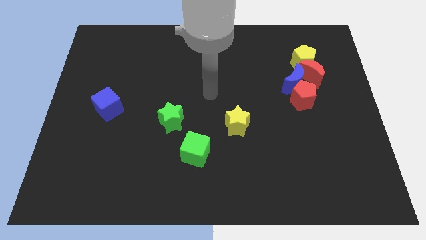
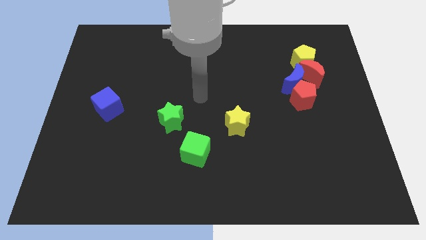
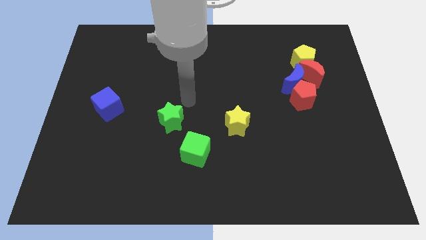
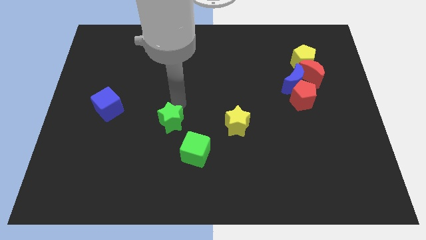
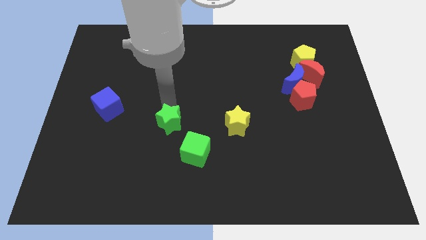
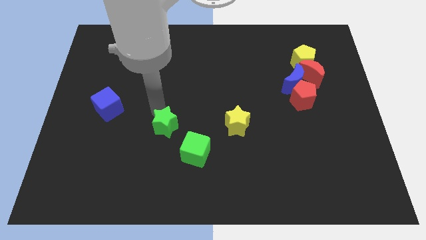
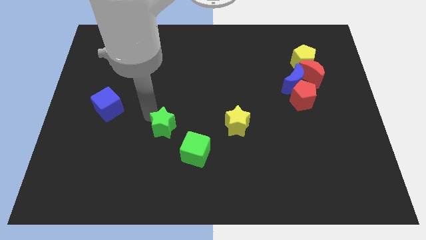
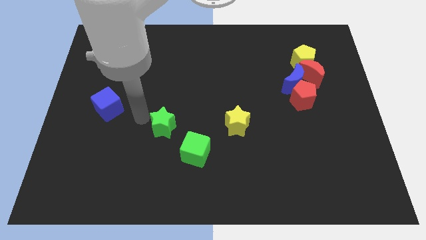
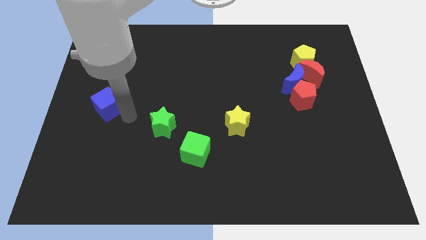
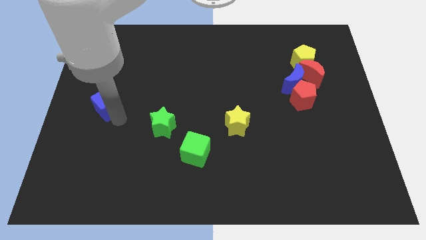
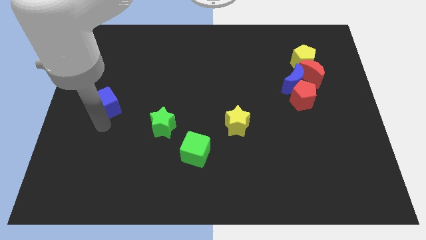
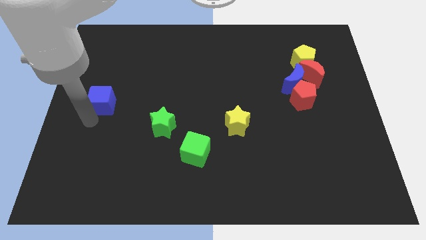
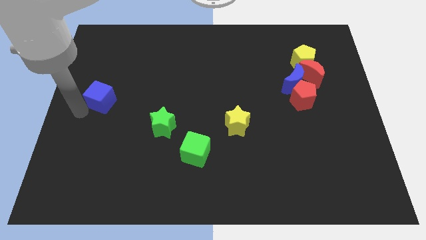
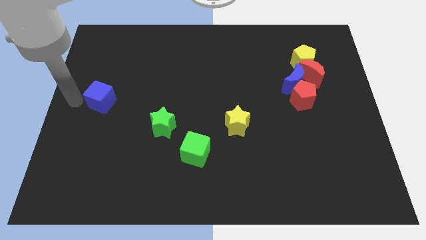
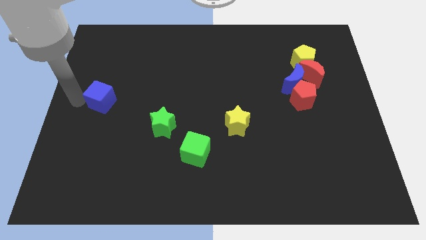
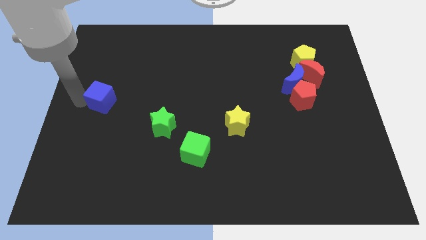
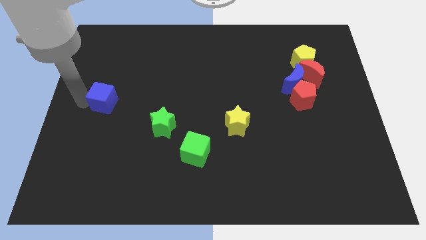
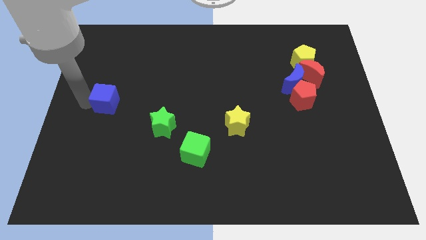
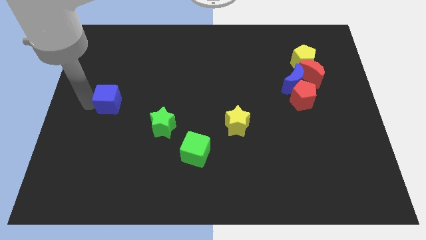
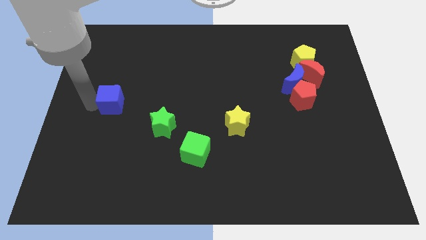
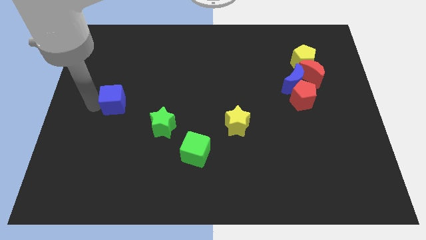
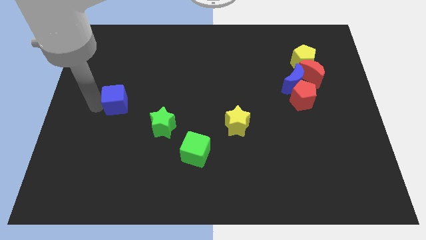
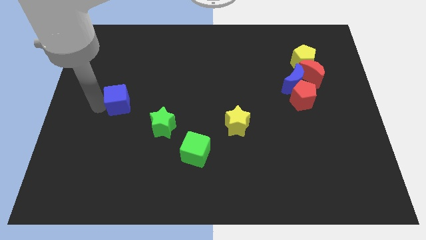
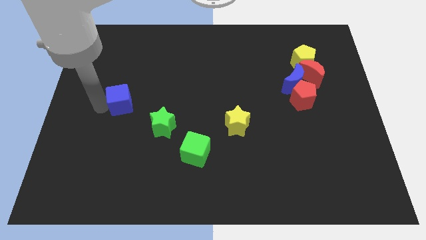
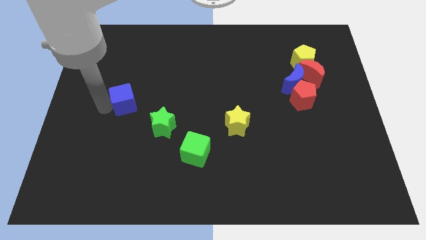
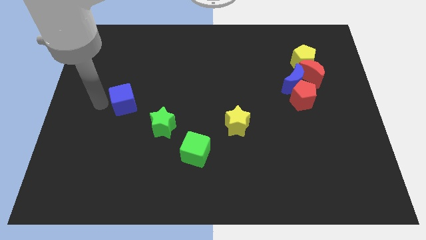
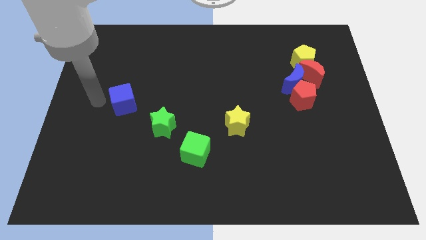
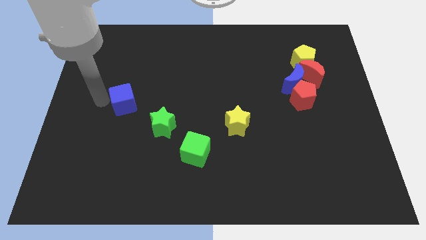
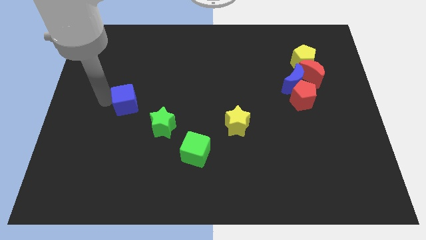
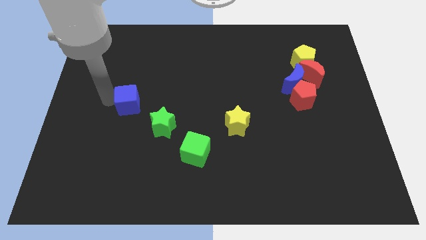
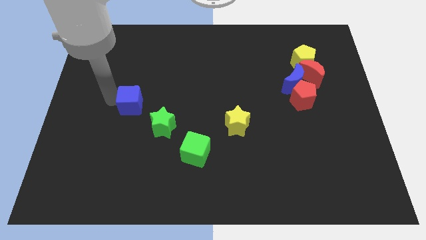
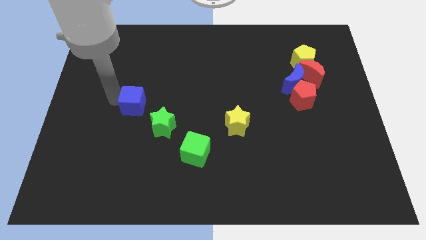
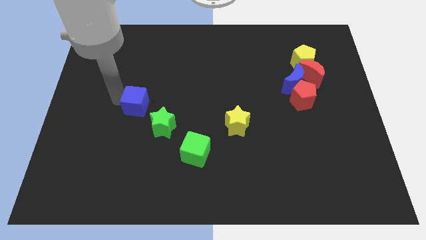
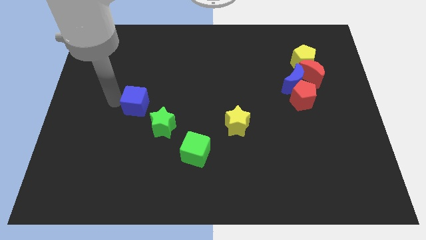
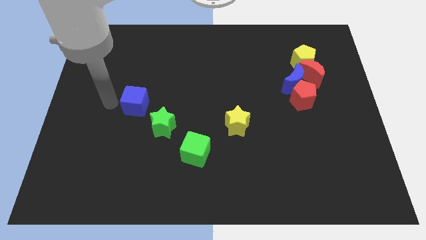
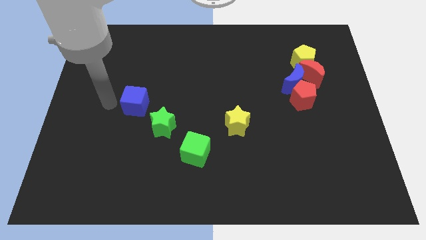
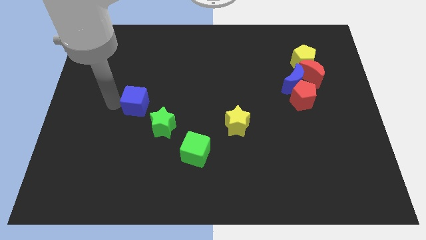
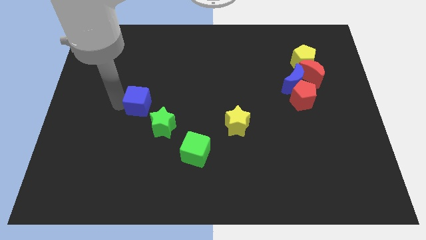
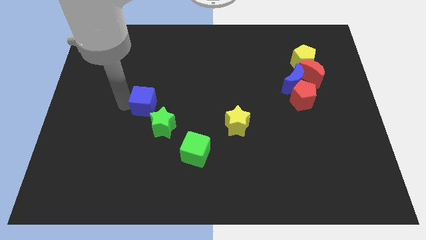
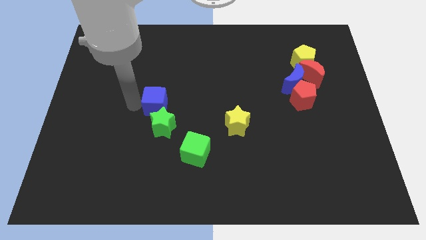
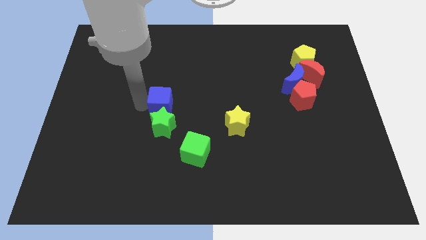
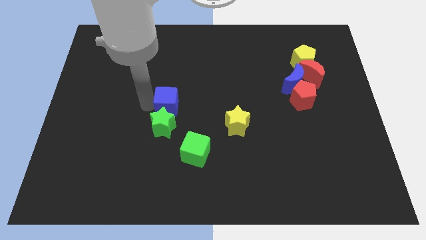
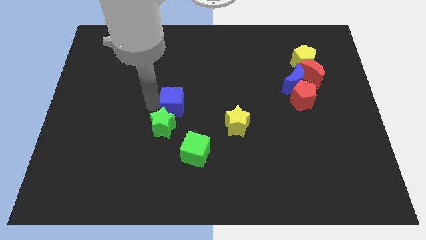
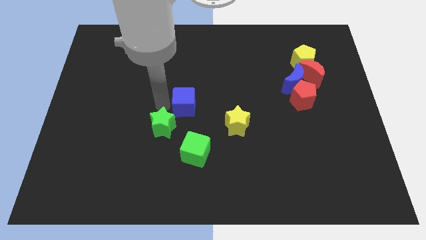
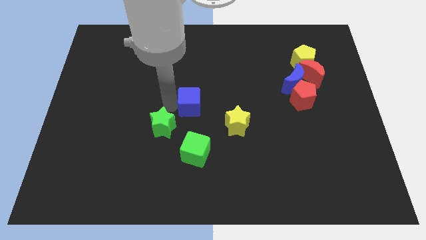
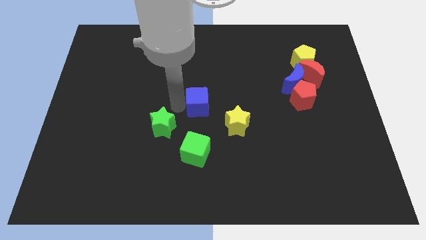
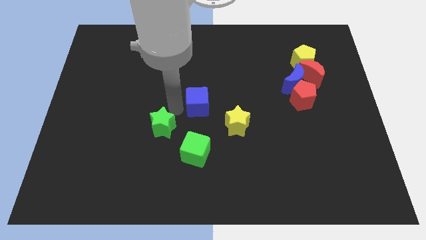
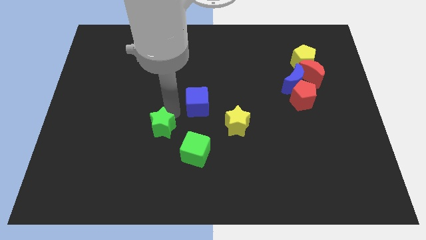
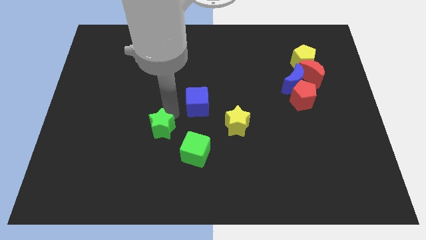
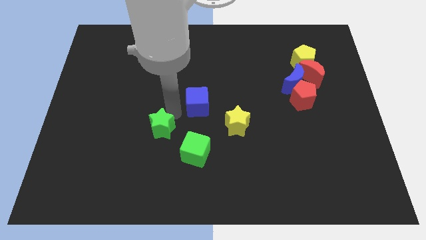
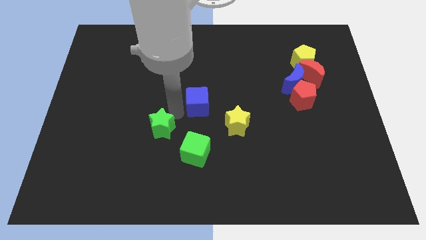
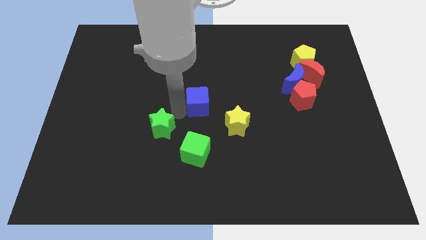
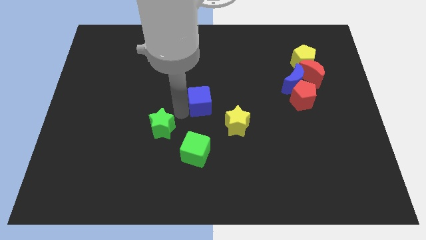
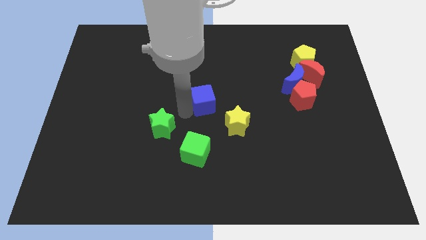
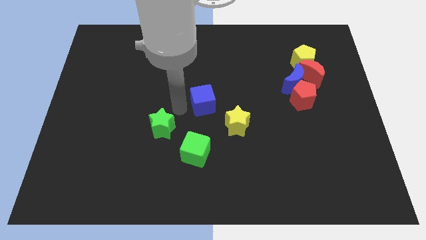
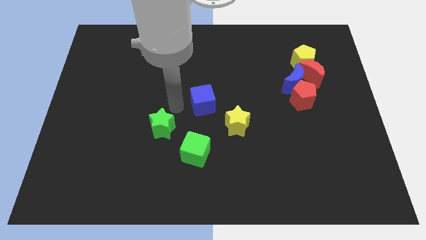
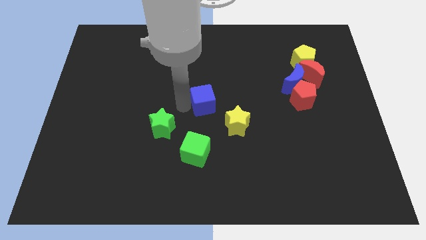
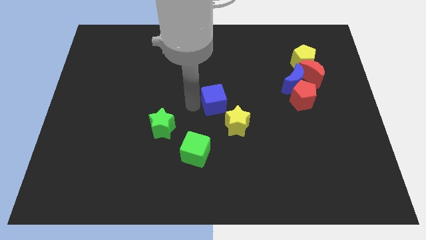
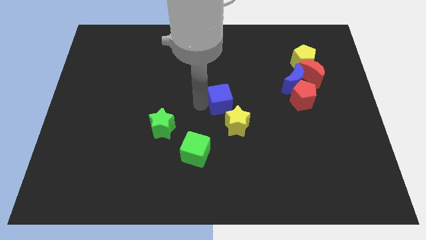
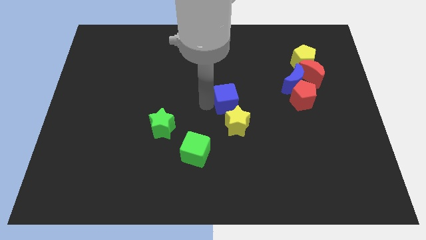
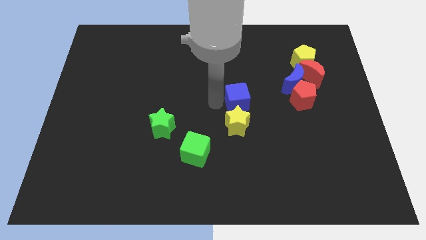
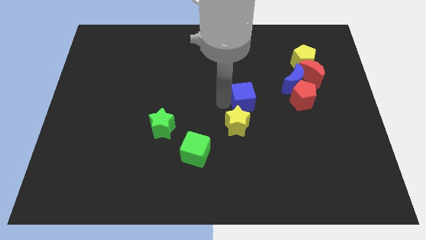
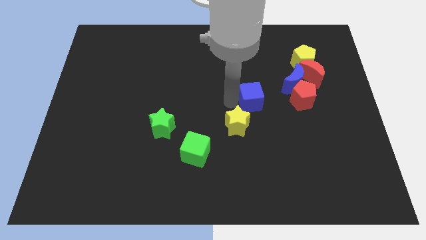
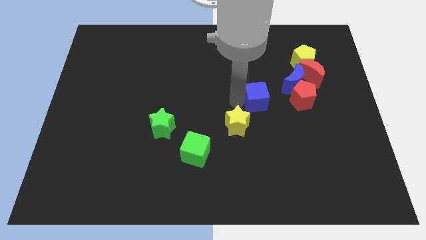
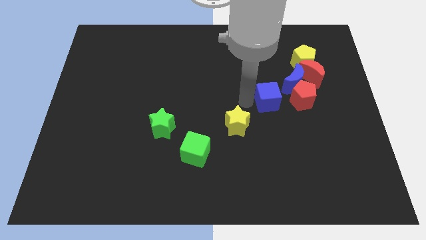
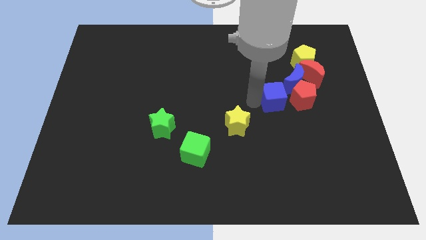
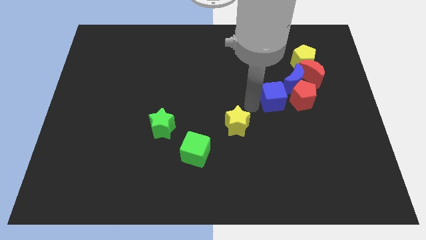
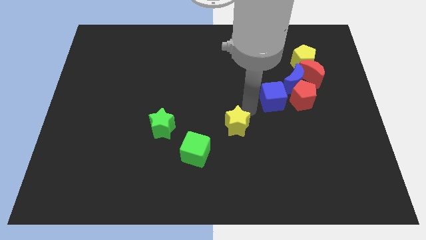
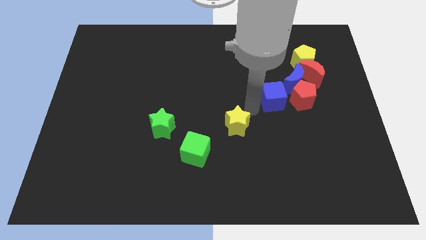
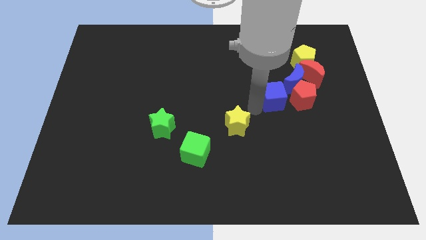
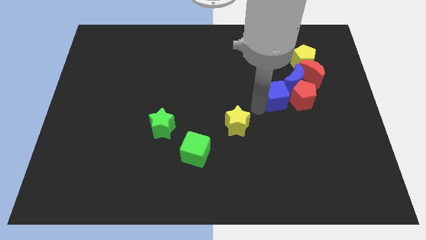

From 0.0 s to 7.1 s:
put the blue cube to the bottom left side of the red moon

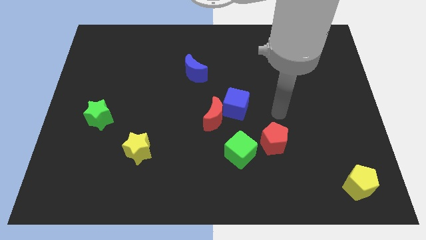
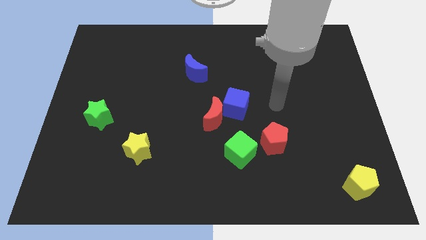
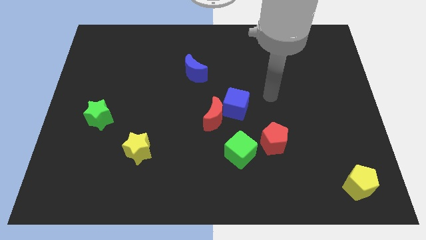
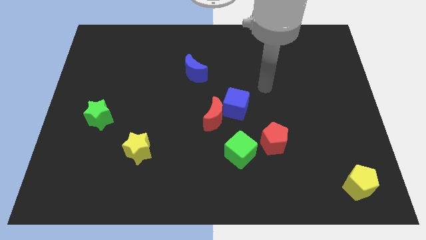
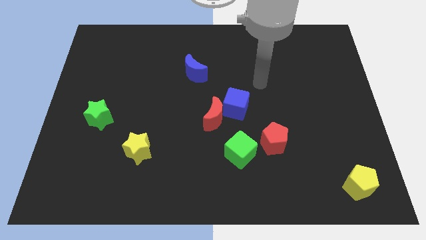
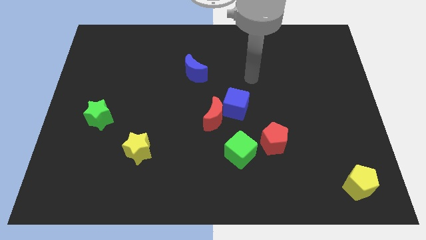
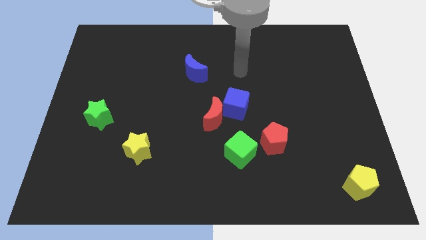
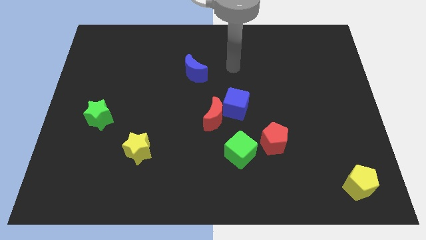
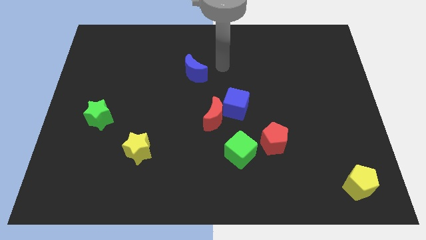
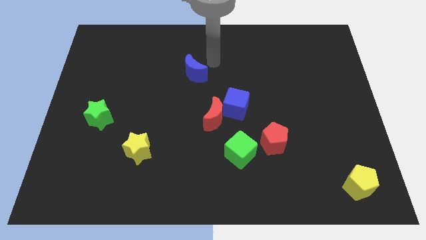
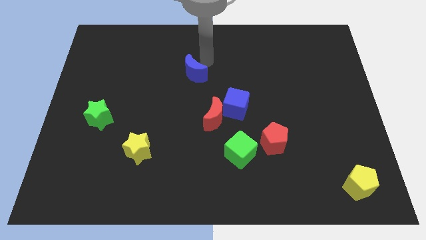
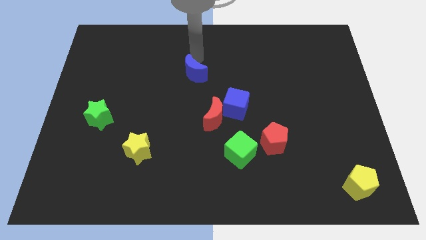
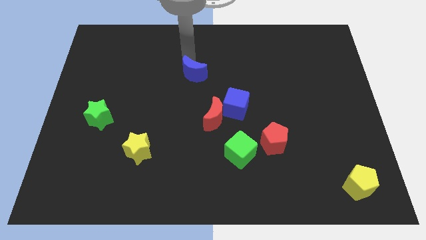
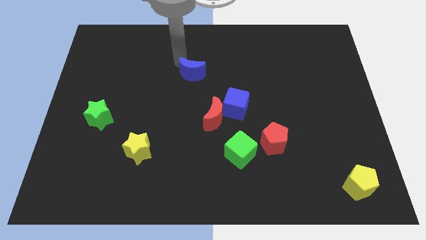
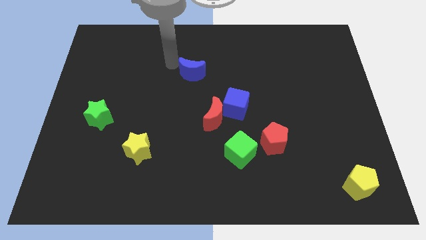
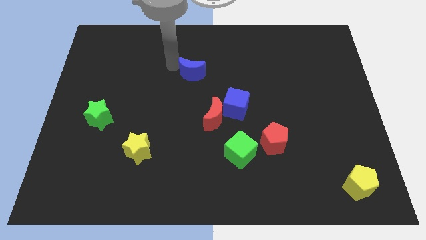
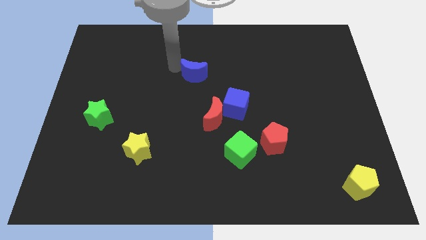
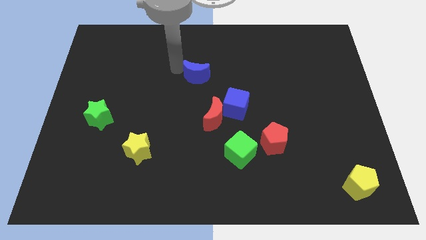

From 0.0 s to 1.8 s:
slide the blue moon to the top side of the red moon
